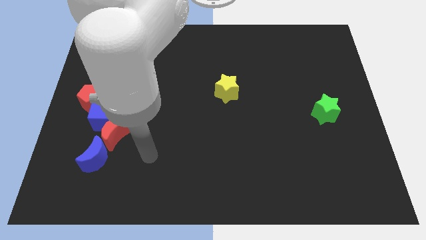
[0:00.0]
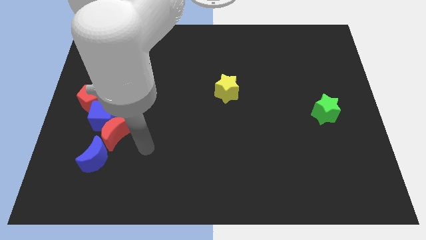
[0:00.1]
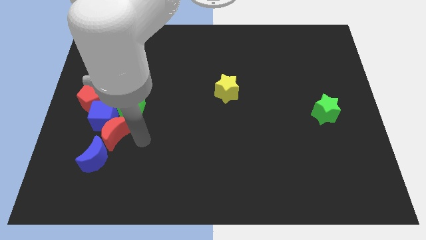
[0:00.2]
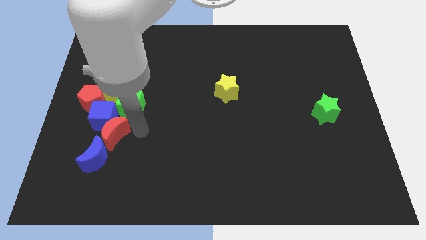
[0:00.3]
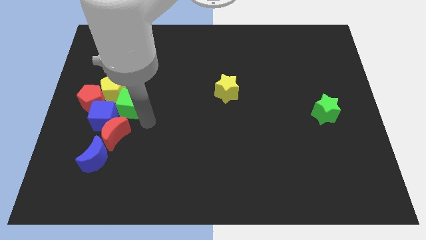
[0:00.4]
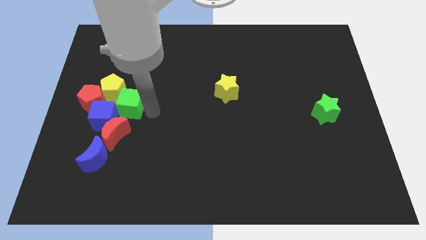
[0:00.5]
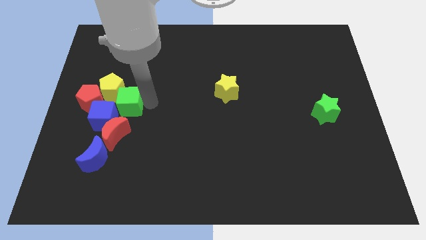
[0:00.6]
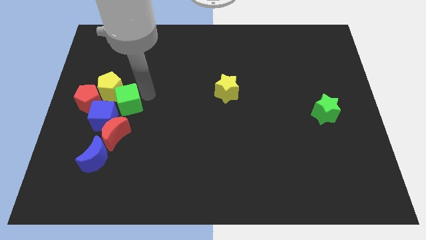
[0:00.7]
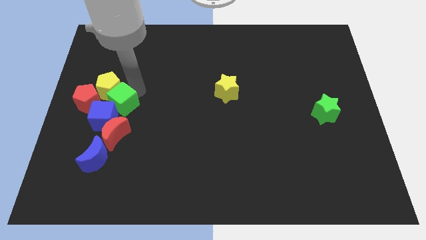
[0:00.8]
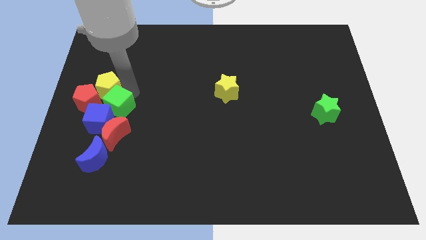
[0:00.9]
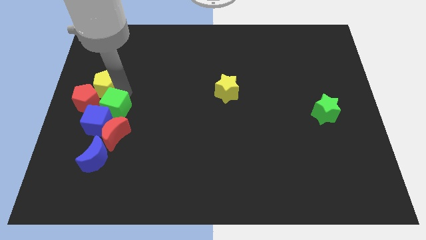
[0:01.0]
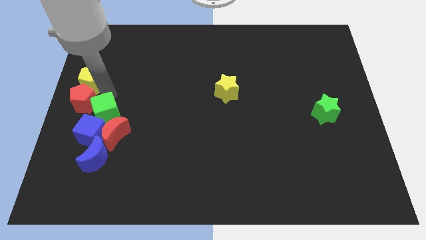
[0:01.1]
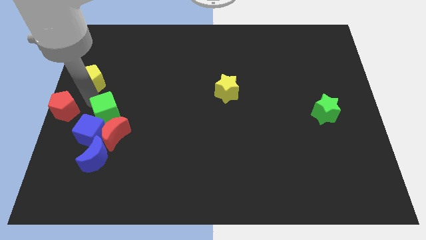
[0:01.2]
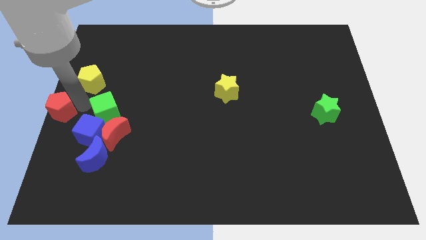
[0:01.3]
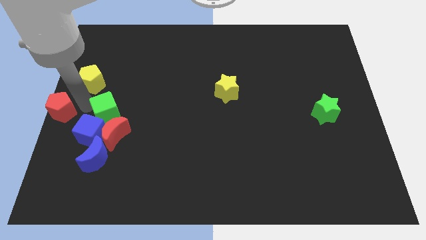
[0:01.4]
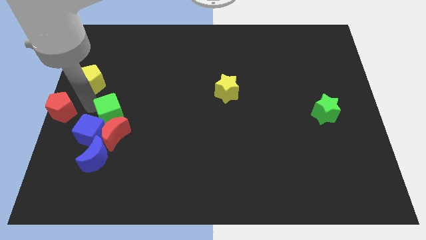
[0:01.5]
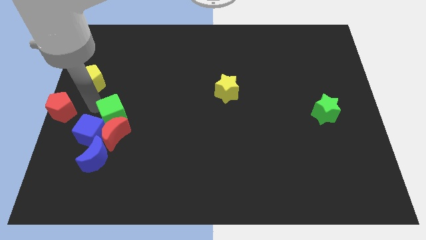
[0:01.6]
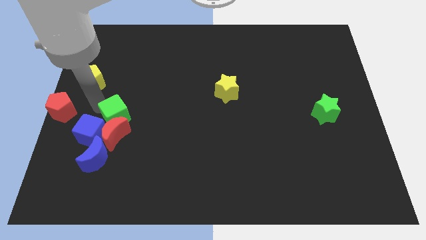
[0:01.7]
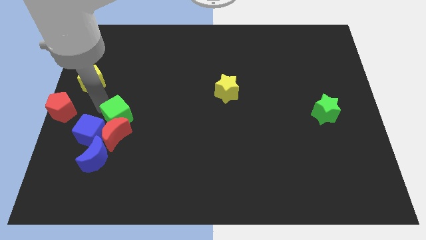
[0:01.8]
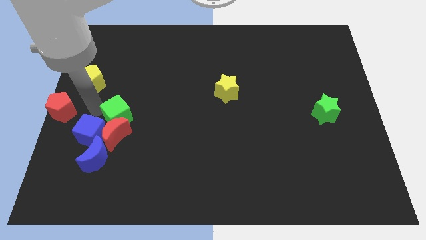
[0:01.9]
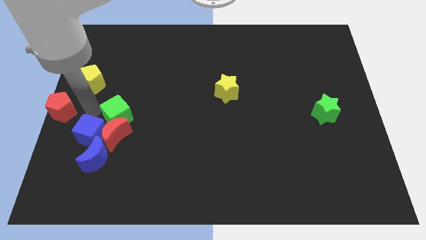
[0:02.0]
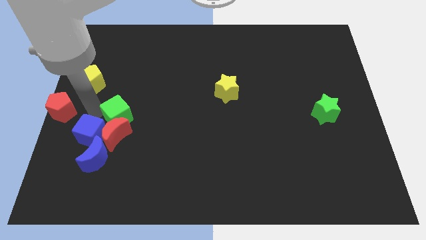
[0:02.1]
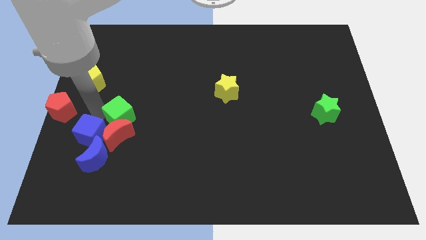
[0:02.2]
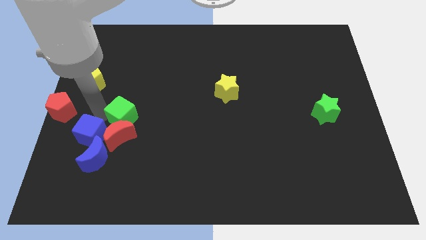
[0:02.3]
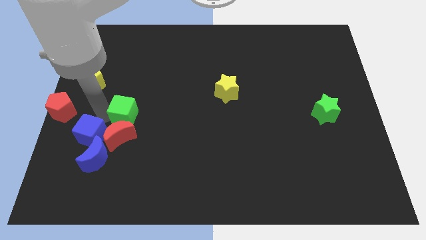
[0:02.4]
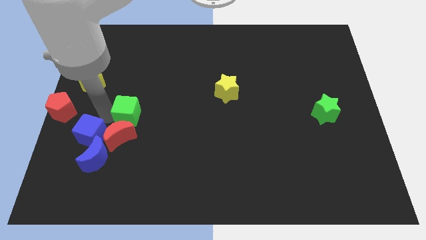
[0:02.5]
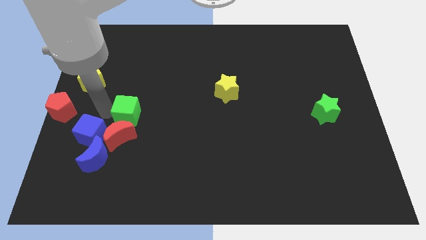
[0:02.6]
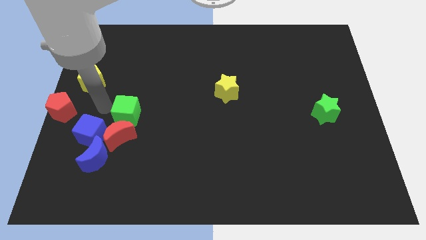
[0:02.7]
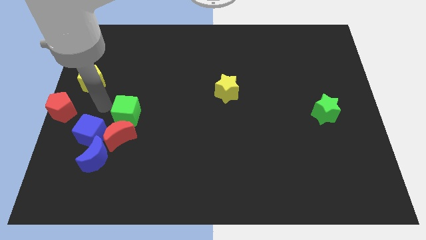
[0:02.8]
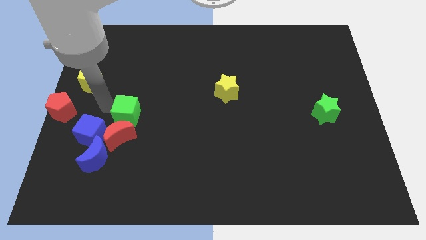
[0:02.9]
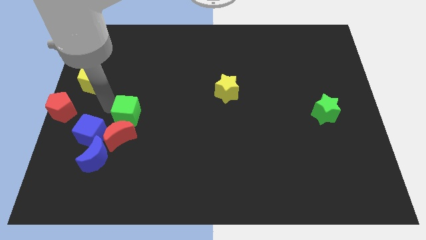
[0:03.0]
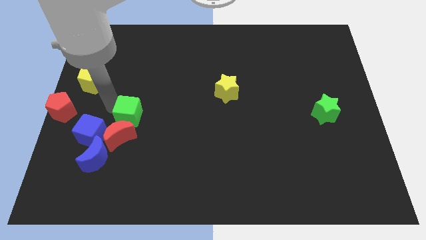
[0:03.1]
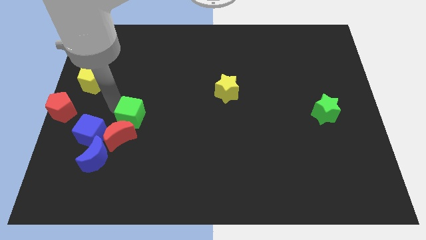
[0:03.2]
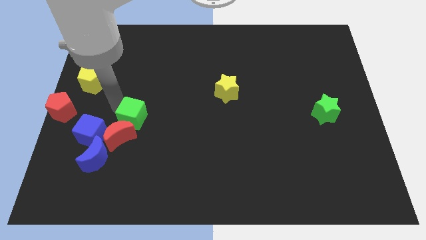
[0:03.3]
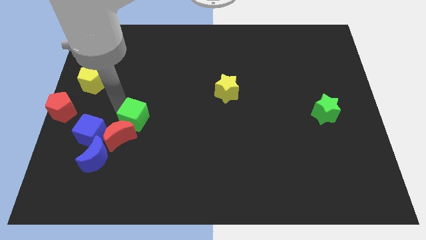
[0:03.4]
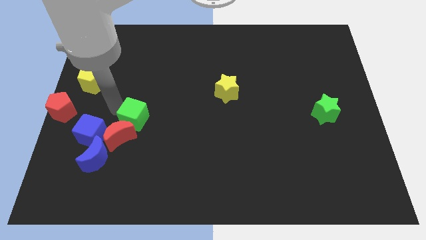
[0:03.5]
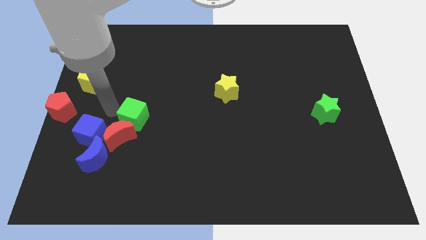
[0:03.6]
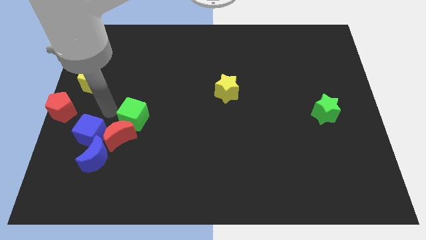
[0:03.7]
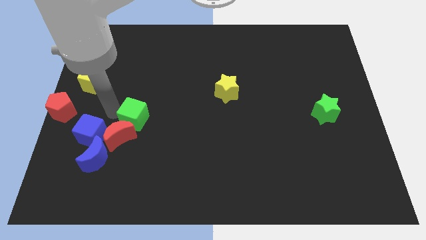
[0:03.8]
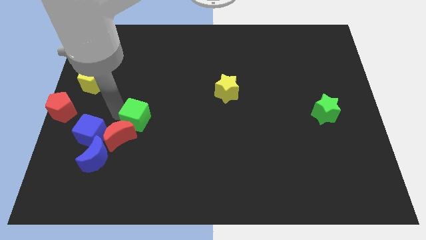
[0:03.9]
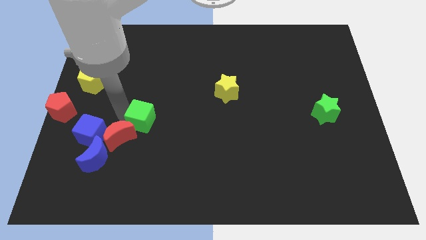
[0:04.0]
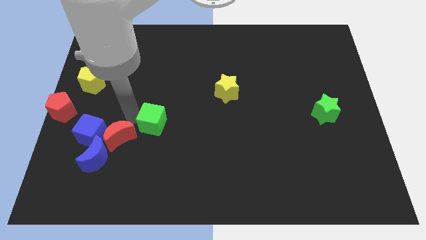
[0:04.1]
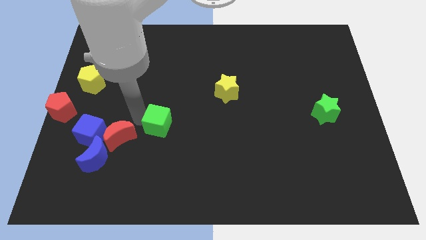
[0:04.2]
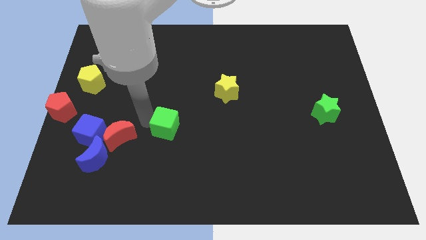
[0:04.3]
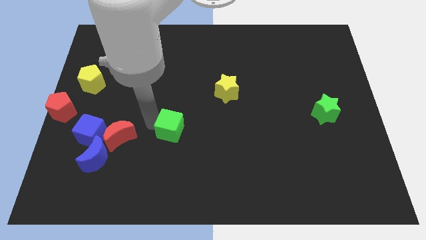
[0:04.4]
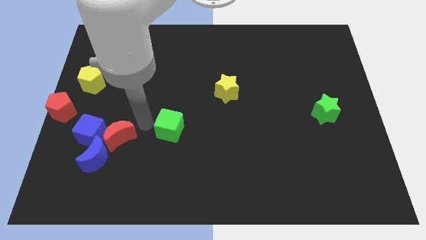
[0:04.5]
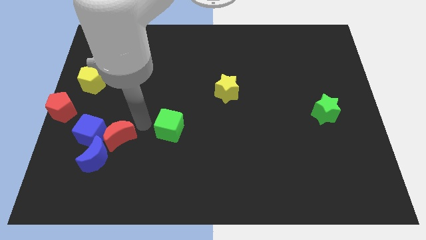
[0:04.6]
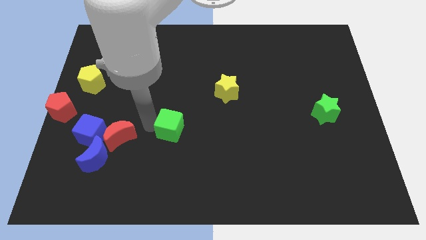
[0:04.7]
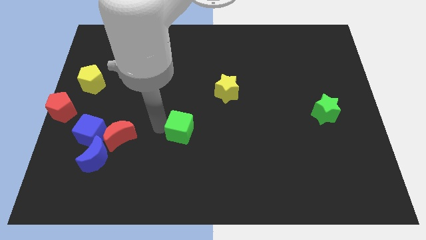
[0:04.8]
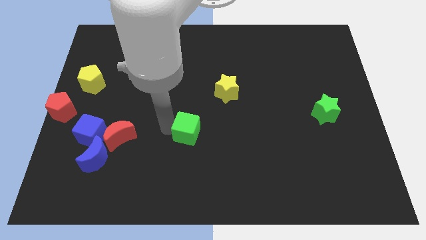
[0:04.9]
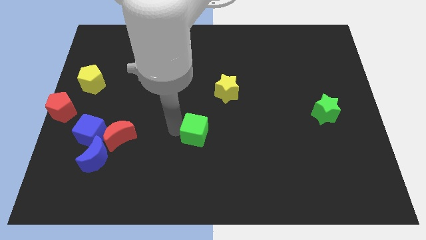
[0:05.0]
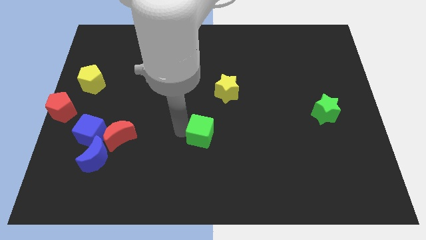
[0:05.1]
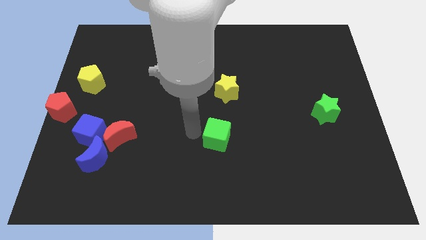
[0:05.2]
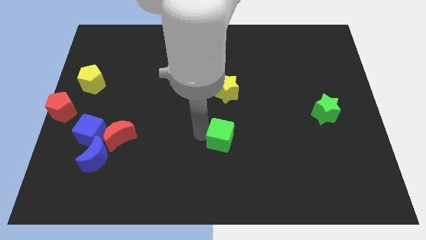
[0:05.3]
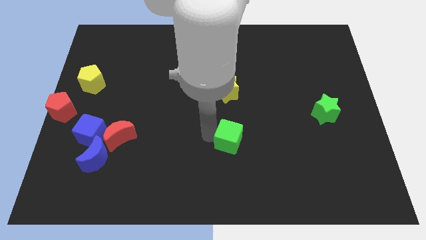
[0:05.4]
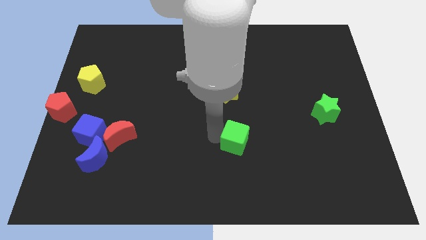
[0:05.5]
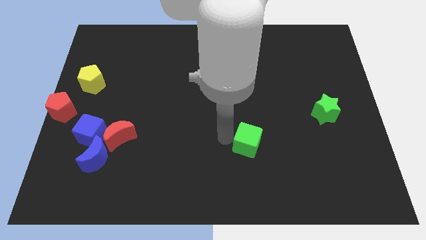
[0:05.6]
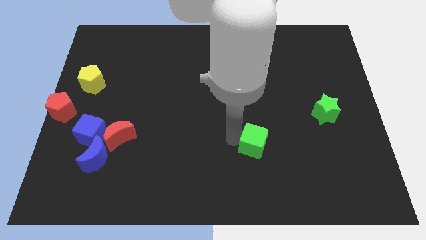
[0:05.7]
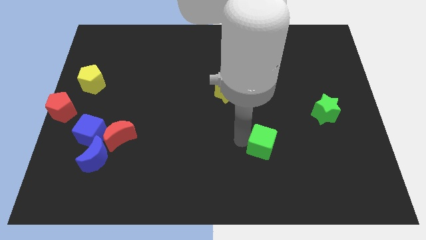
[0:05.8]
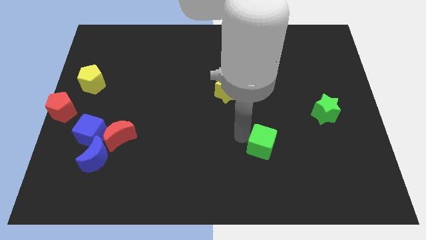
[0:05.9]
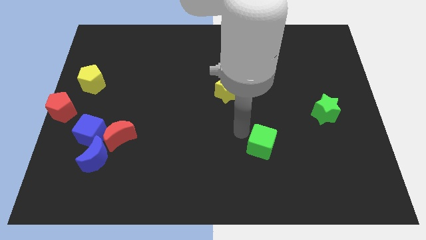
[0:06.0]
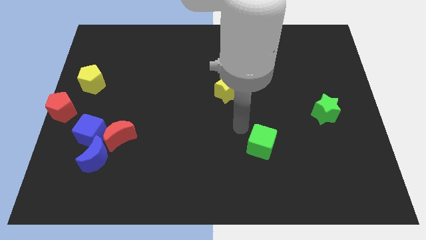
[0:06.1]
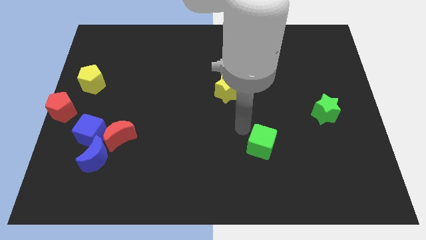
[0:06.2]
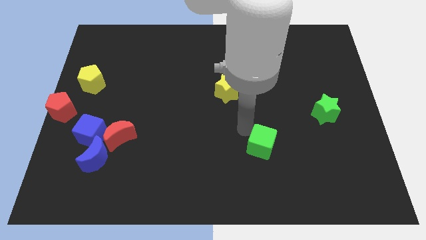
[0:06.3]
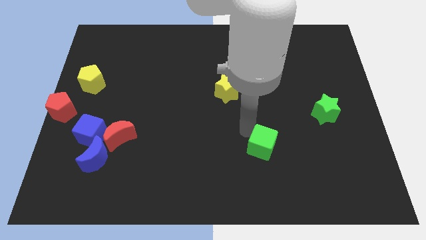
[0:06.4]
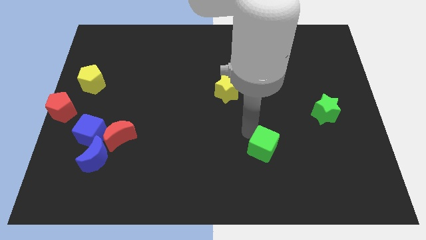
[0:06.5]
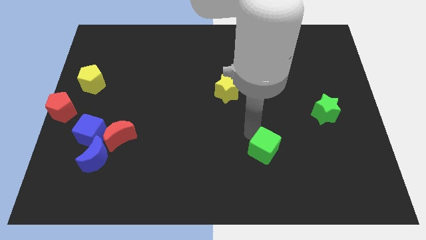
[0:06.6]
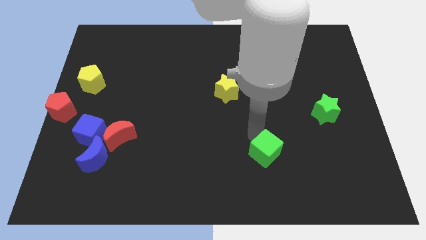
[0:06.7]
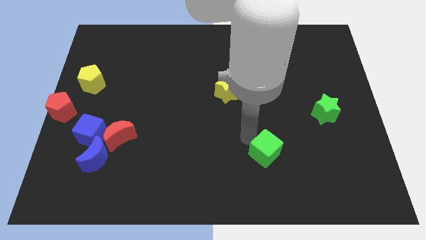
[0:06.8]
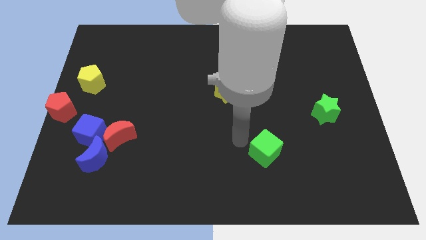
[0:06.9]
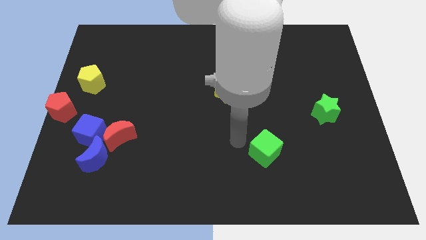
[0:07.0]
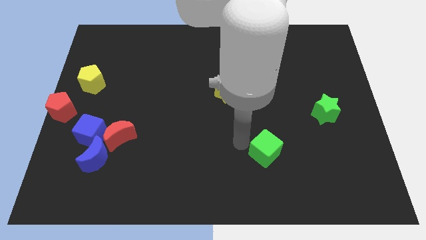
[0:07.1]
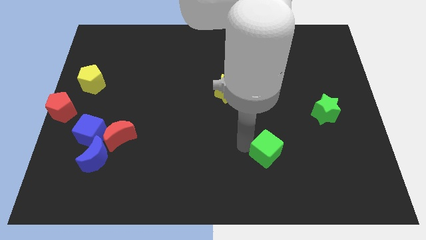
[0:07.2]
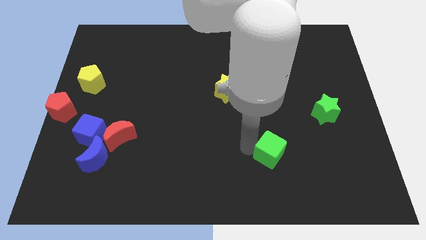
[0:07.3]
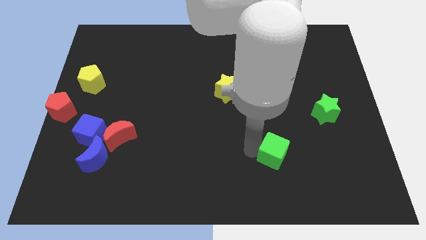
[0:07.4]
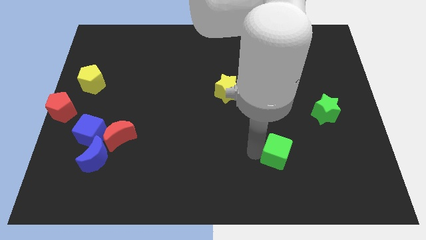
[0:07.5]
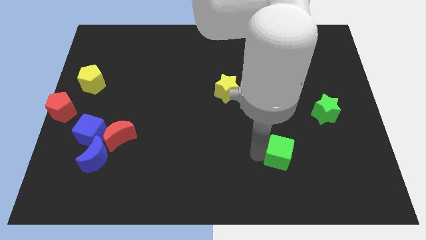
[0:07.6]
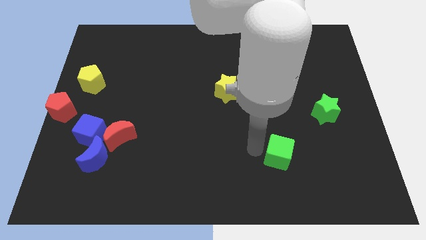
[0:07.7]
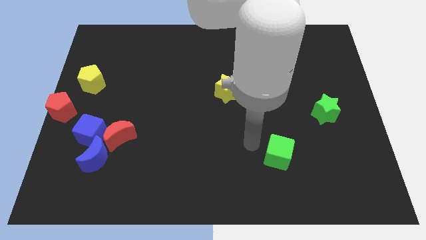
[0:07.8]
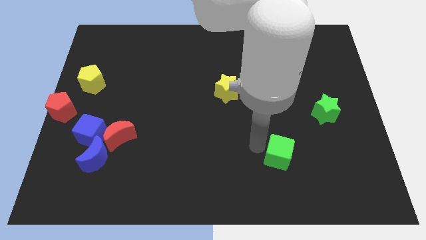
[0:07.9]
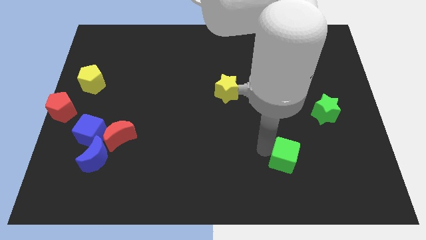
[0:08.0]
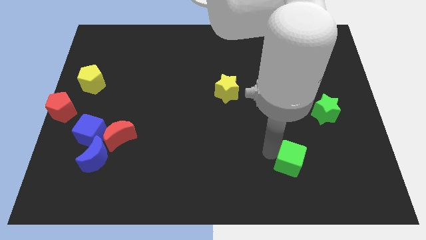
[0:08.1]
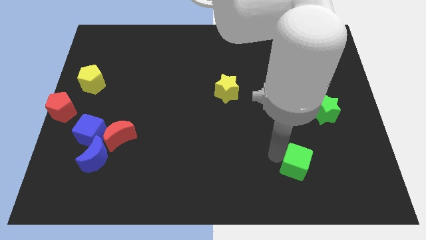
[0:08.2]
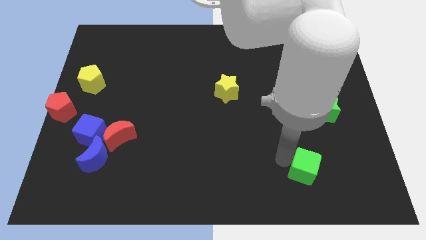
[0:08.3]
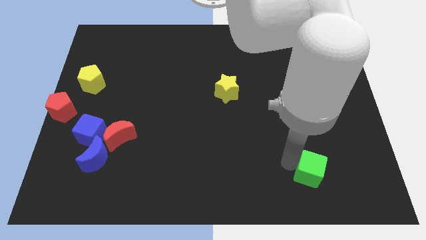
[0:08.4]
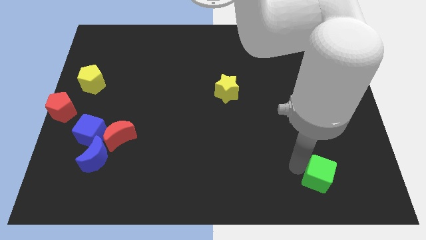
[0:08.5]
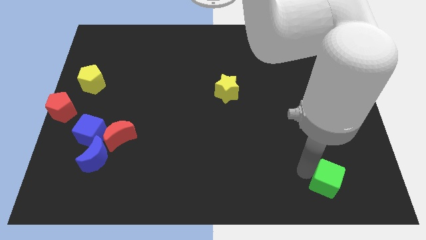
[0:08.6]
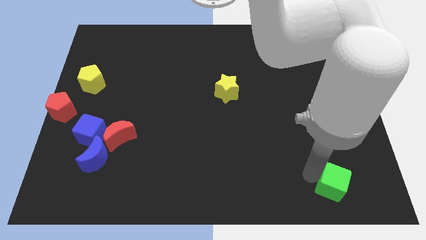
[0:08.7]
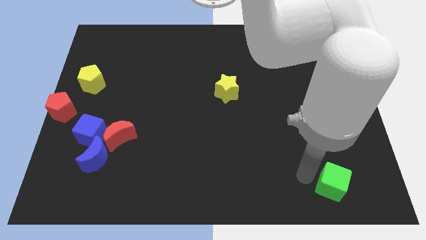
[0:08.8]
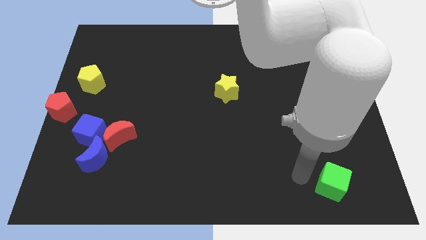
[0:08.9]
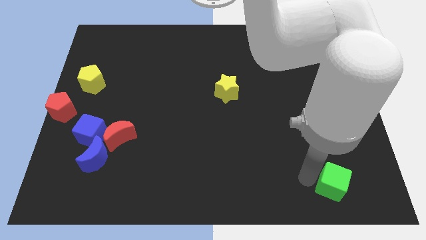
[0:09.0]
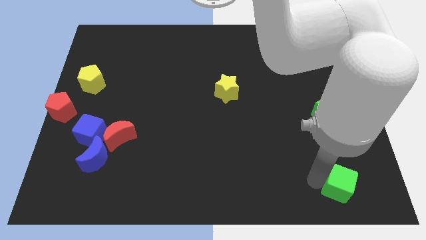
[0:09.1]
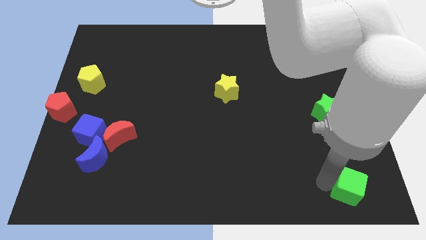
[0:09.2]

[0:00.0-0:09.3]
slide the green cube to the bottom right
